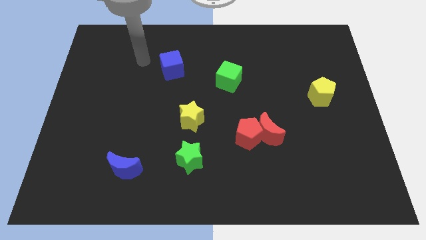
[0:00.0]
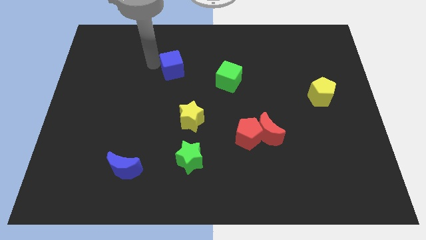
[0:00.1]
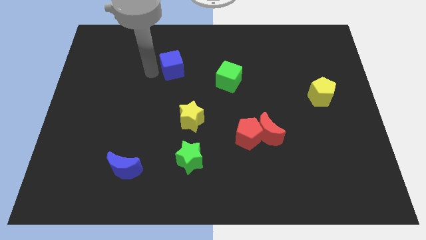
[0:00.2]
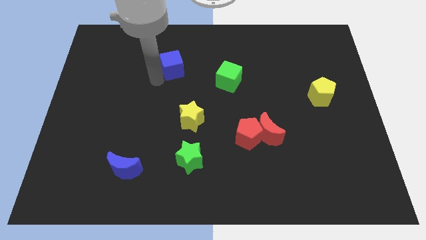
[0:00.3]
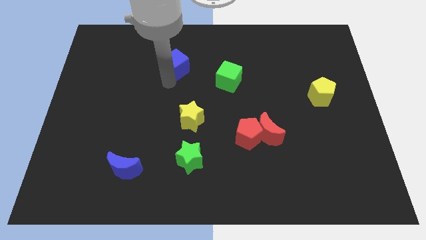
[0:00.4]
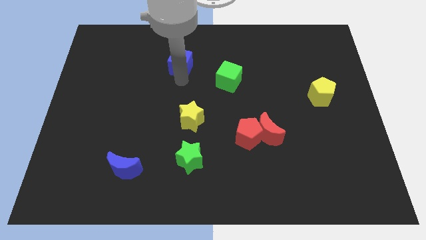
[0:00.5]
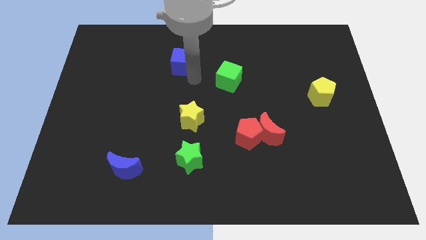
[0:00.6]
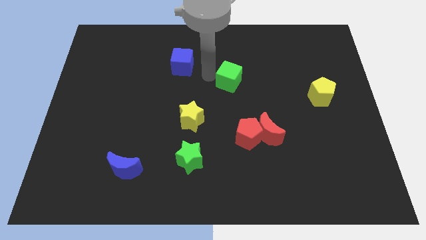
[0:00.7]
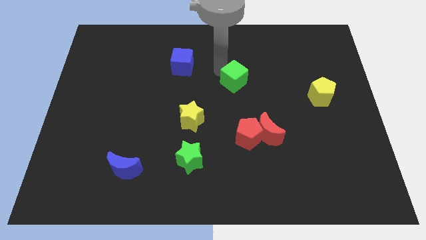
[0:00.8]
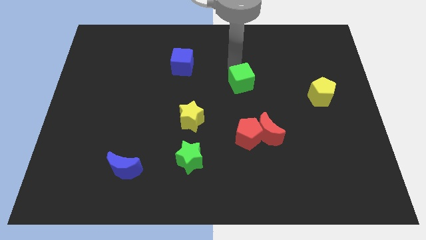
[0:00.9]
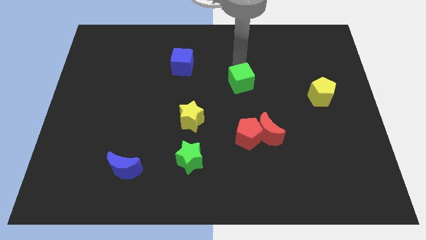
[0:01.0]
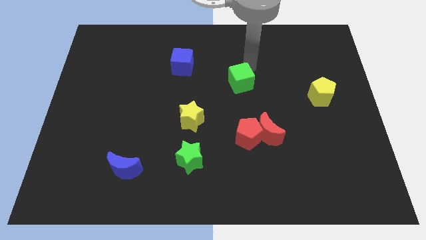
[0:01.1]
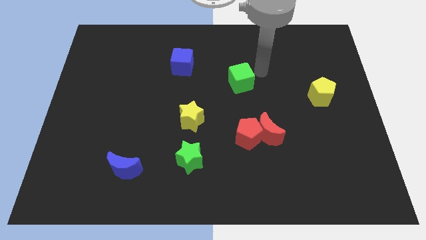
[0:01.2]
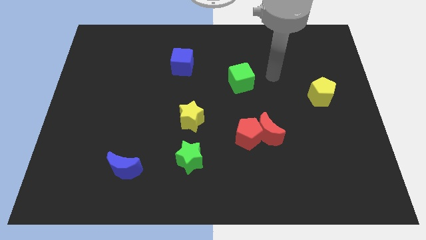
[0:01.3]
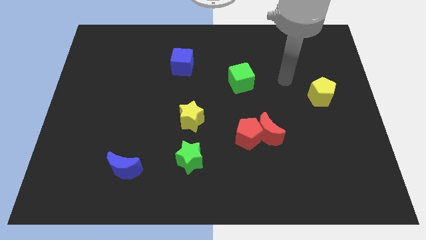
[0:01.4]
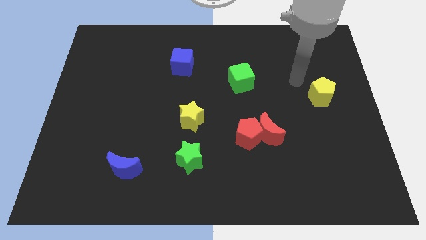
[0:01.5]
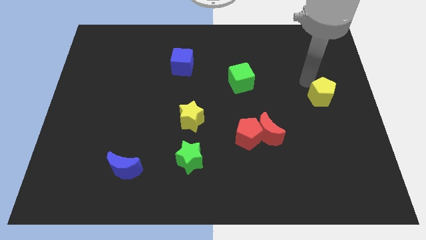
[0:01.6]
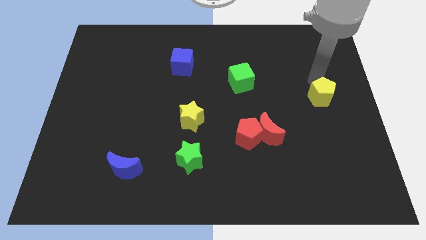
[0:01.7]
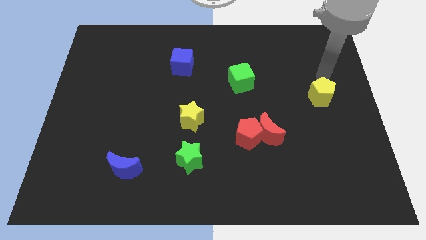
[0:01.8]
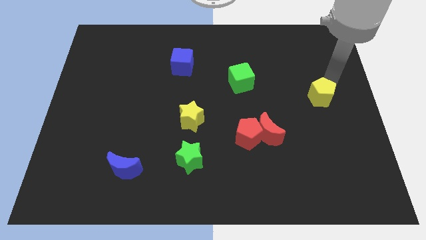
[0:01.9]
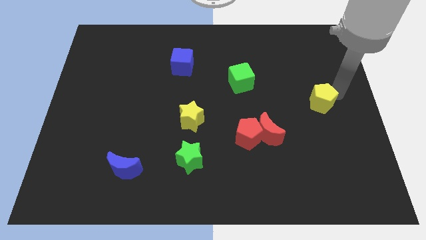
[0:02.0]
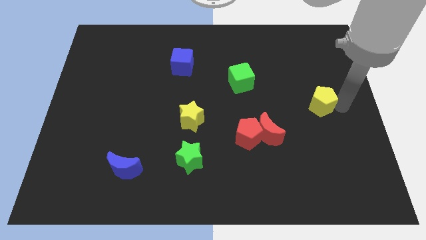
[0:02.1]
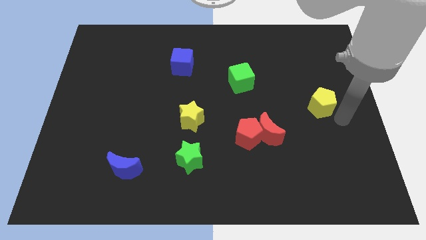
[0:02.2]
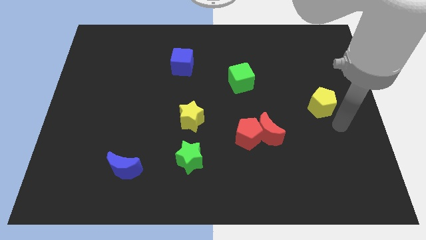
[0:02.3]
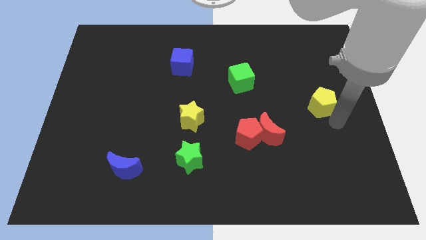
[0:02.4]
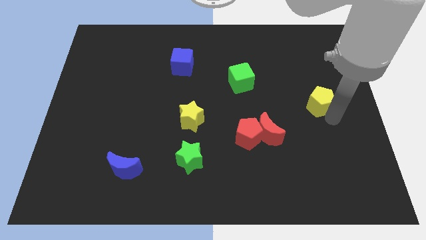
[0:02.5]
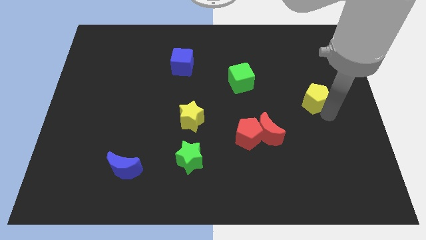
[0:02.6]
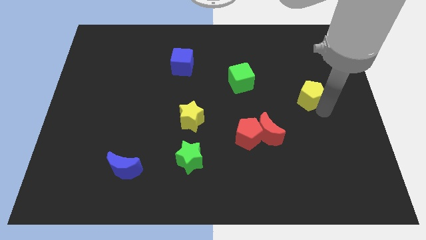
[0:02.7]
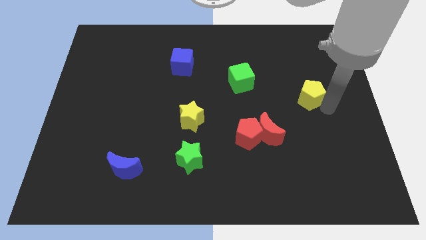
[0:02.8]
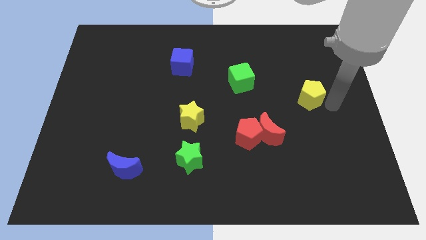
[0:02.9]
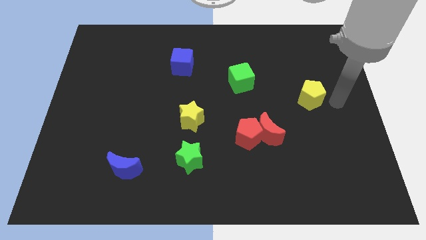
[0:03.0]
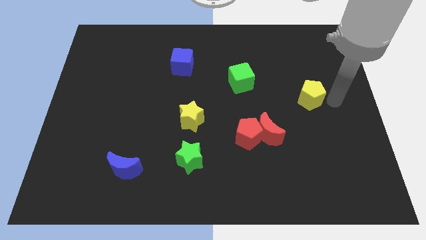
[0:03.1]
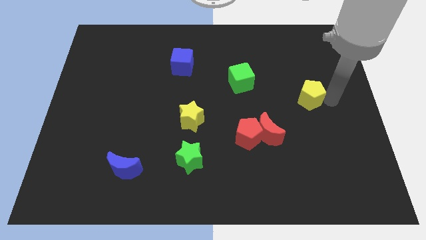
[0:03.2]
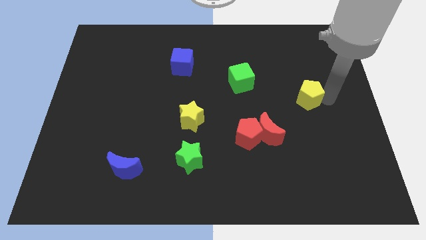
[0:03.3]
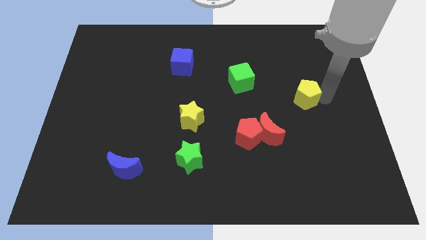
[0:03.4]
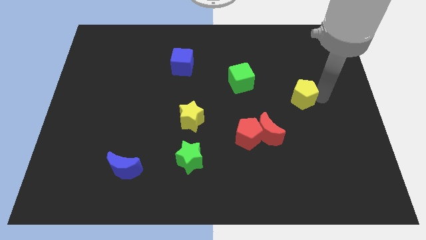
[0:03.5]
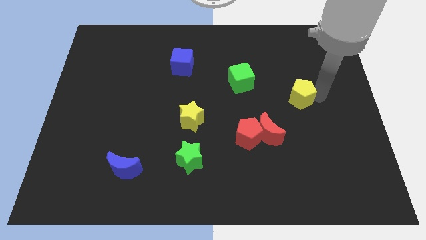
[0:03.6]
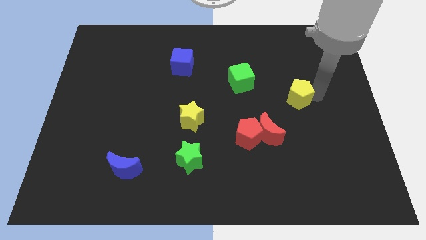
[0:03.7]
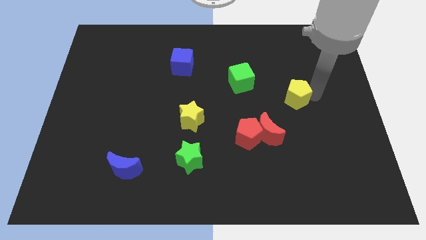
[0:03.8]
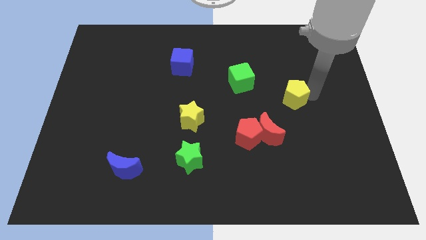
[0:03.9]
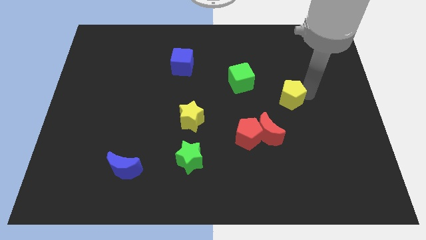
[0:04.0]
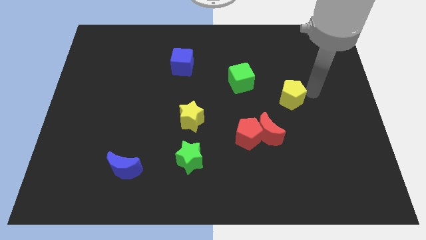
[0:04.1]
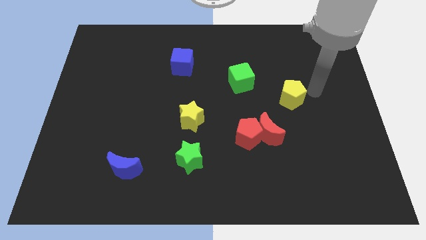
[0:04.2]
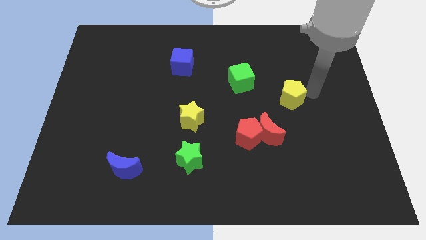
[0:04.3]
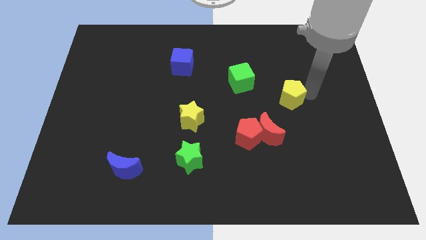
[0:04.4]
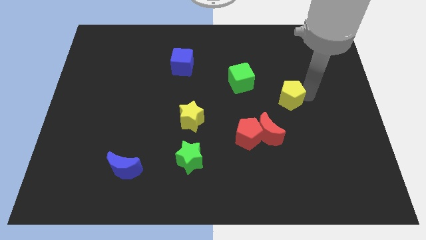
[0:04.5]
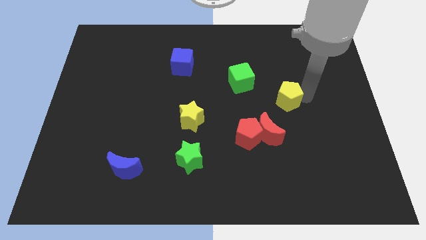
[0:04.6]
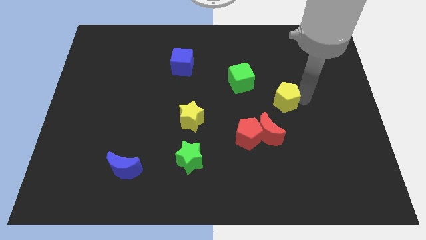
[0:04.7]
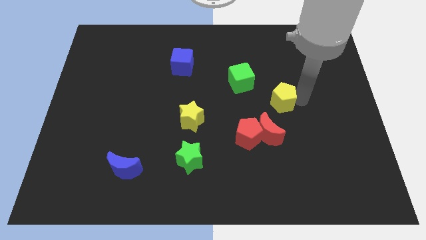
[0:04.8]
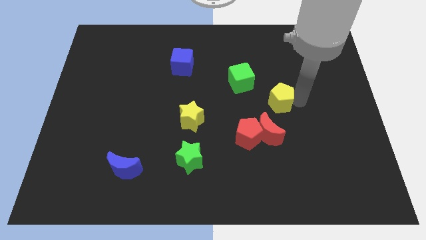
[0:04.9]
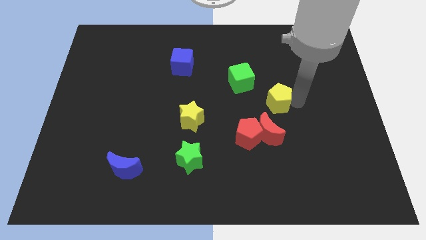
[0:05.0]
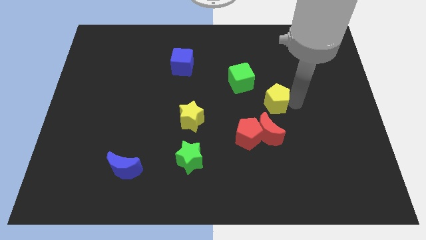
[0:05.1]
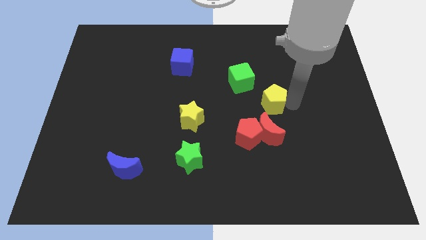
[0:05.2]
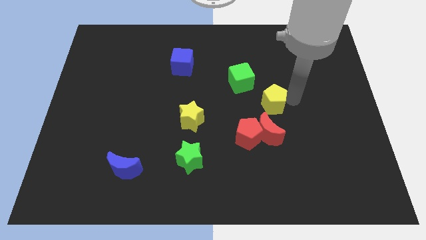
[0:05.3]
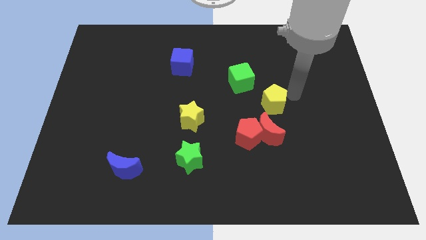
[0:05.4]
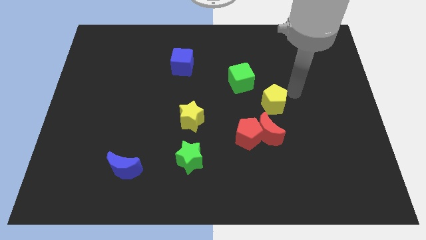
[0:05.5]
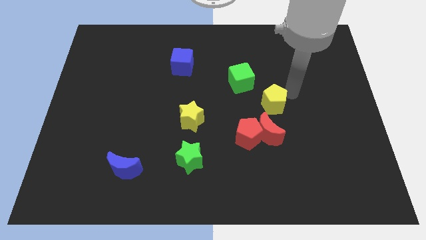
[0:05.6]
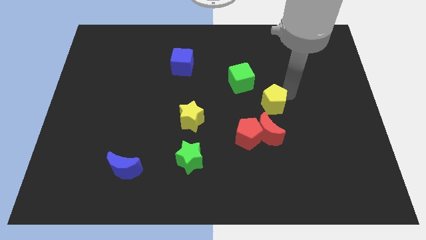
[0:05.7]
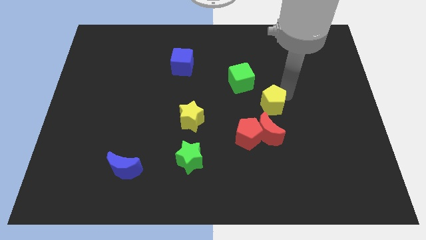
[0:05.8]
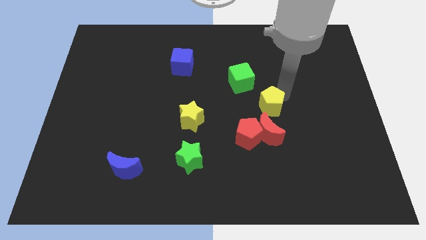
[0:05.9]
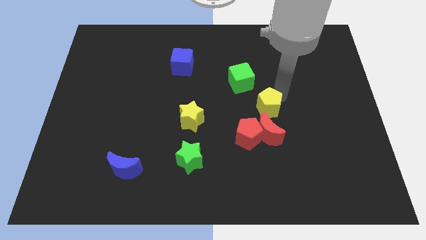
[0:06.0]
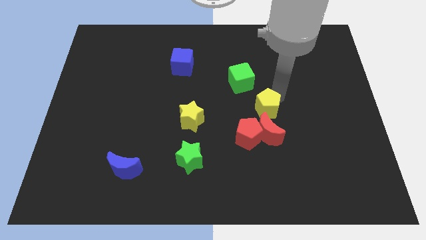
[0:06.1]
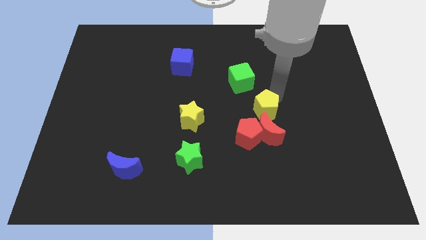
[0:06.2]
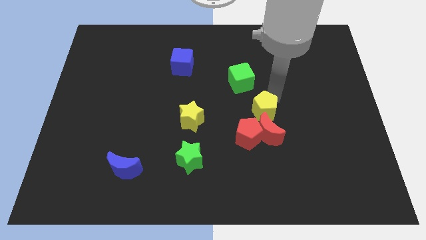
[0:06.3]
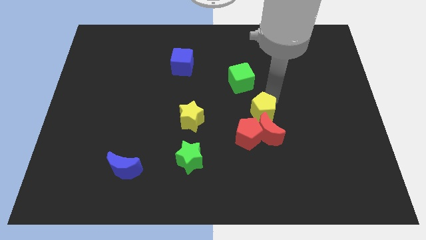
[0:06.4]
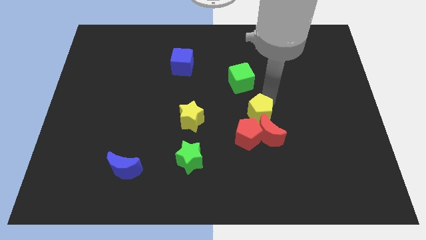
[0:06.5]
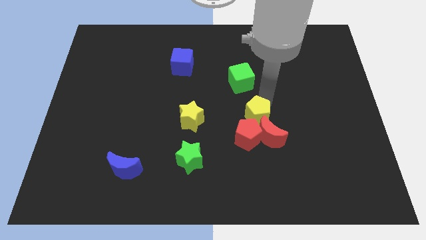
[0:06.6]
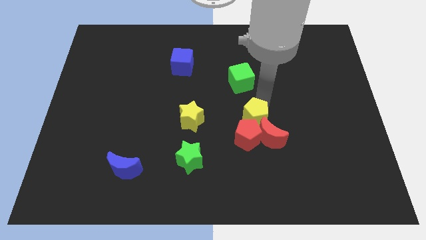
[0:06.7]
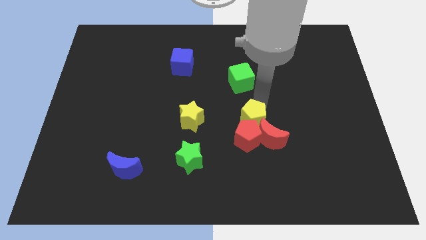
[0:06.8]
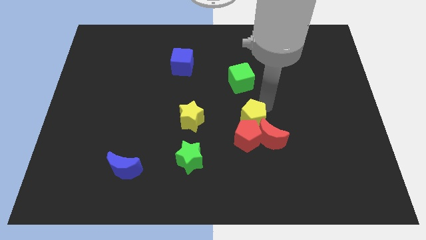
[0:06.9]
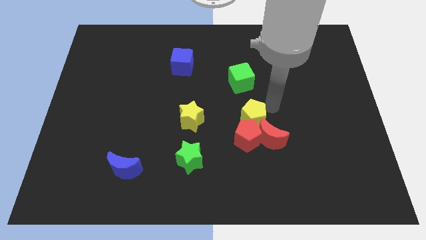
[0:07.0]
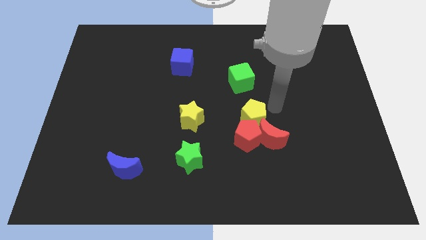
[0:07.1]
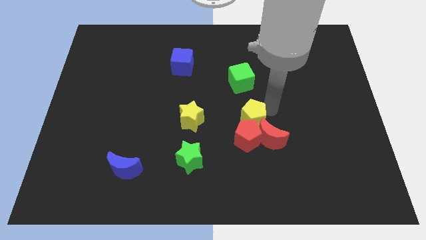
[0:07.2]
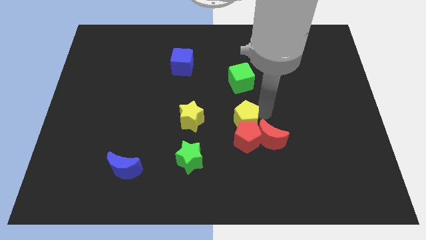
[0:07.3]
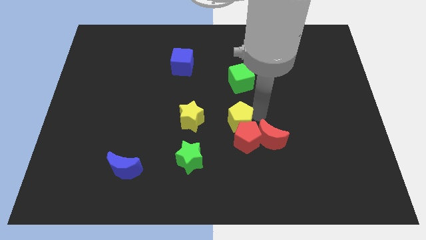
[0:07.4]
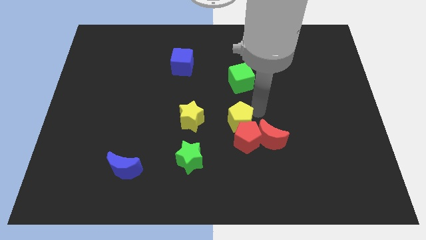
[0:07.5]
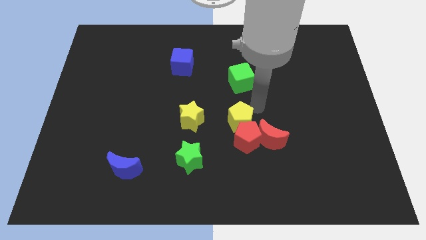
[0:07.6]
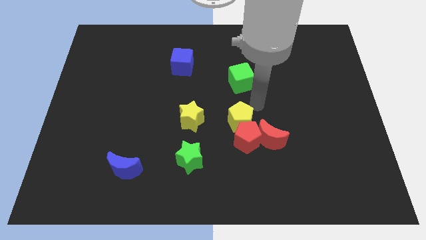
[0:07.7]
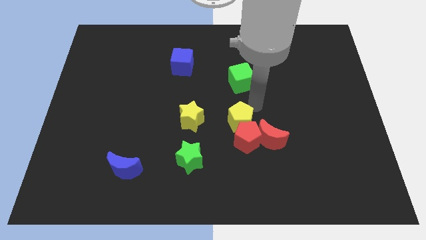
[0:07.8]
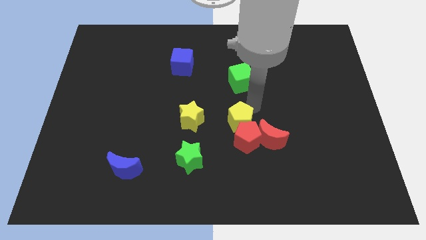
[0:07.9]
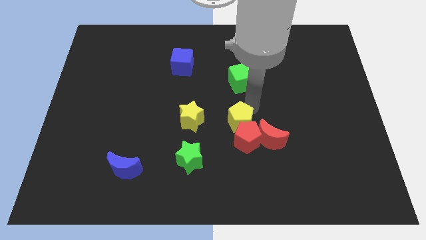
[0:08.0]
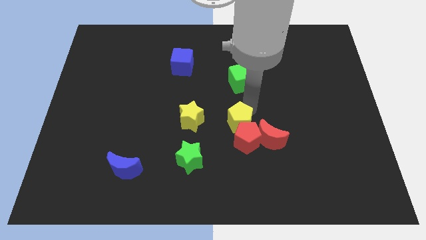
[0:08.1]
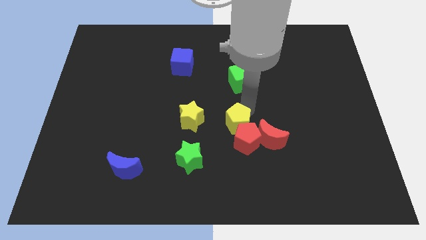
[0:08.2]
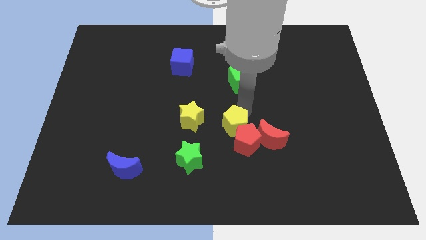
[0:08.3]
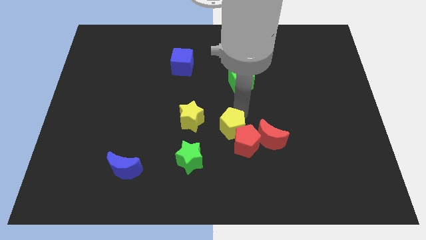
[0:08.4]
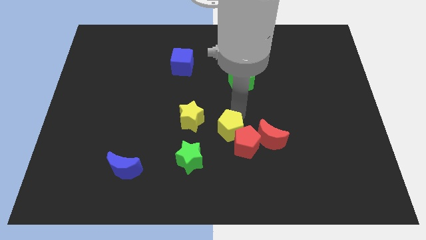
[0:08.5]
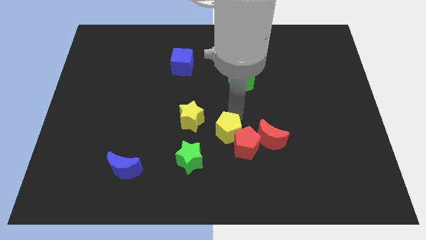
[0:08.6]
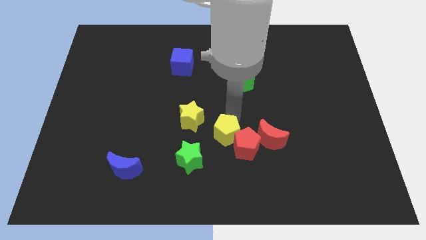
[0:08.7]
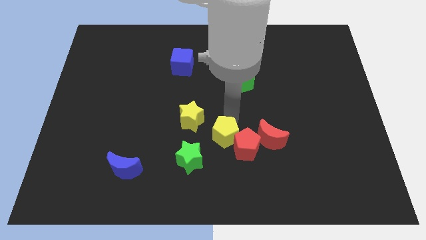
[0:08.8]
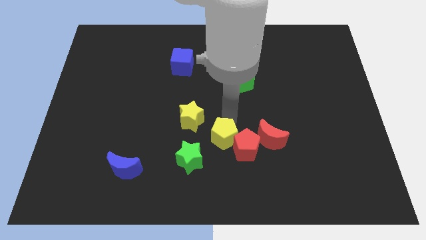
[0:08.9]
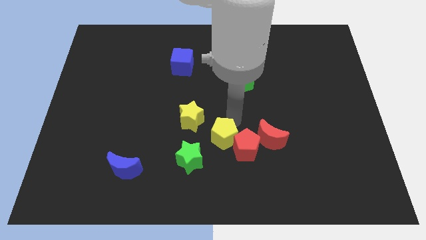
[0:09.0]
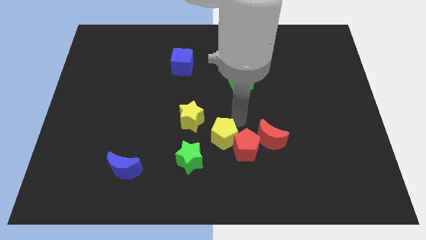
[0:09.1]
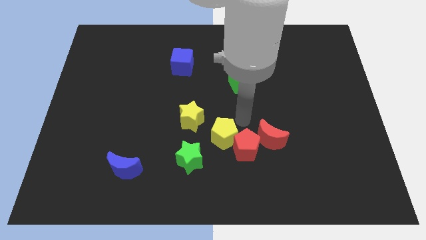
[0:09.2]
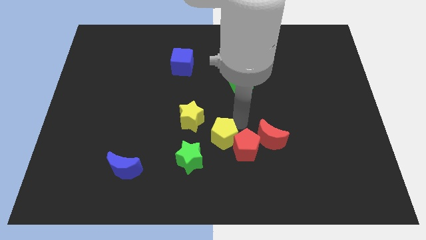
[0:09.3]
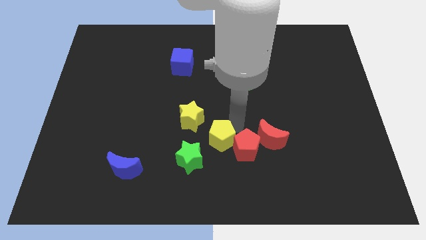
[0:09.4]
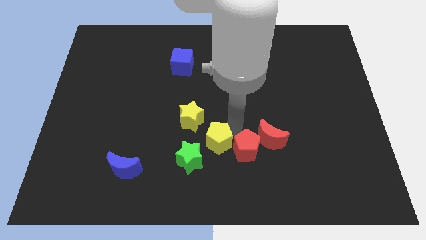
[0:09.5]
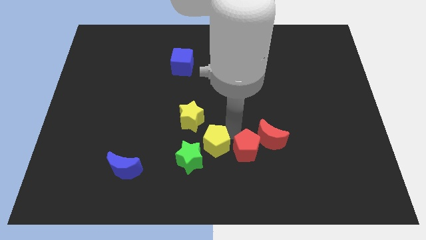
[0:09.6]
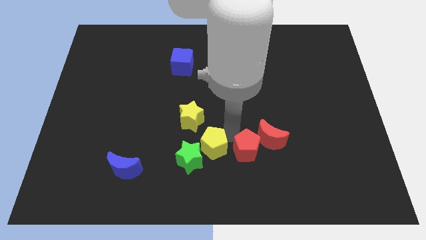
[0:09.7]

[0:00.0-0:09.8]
push the yellow pentagon to the green star
